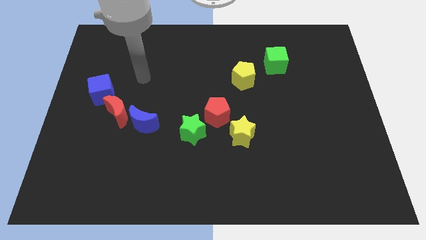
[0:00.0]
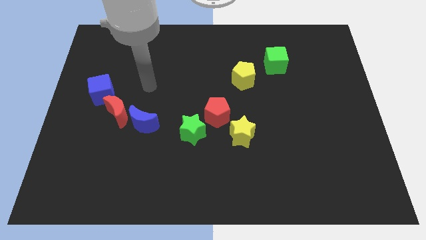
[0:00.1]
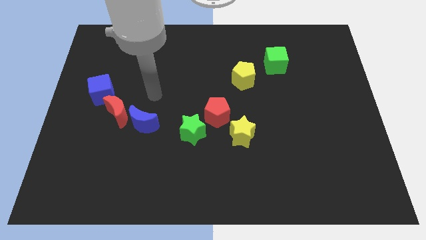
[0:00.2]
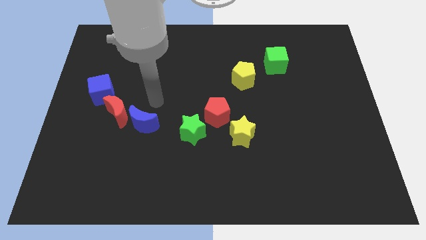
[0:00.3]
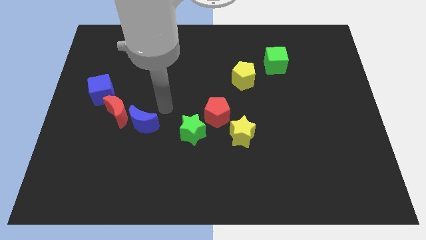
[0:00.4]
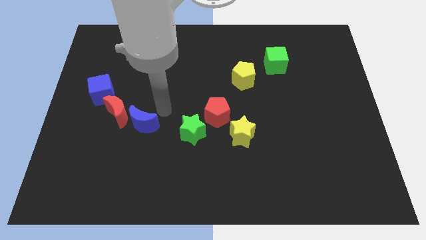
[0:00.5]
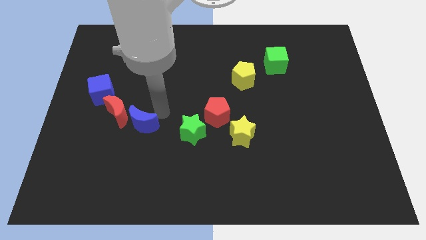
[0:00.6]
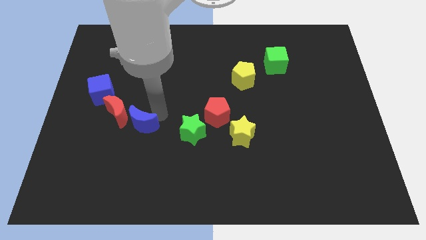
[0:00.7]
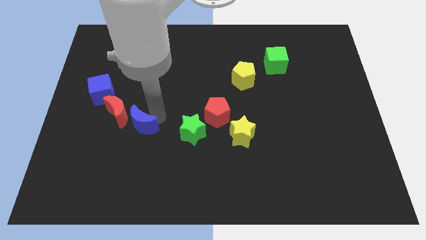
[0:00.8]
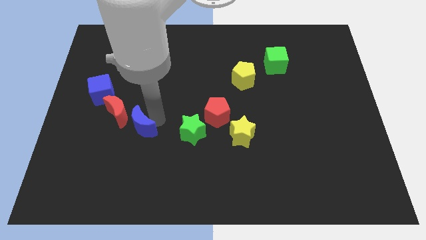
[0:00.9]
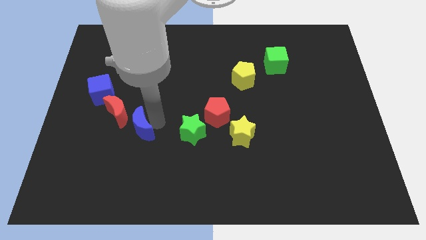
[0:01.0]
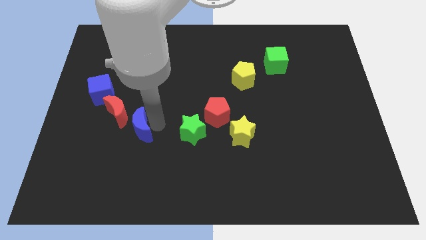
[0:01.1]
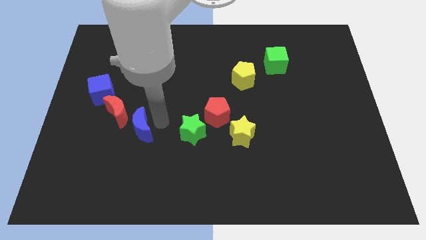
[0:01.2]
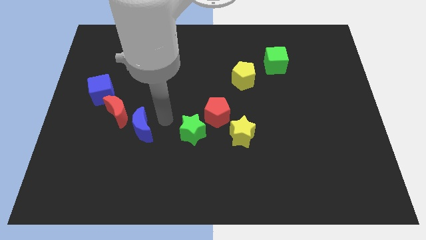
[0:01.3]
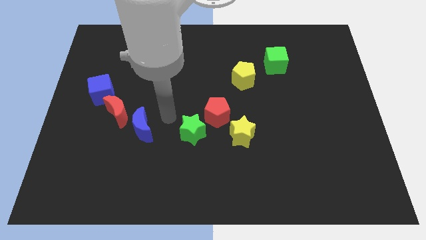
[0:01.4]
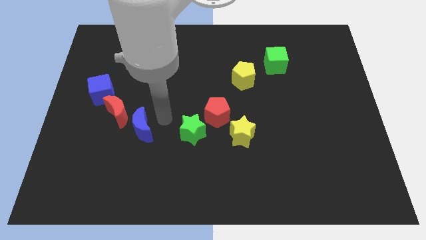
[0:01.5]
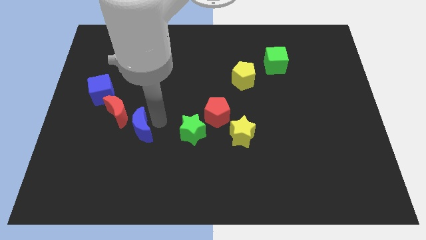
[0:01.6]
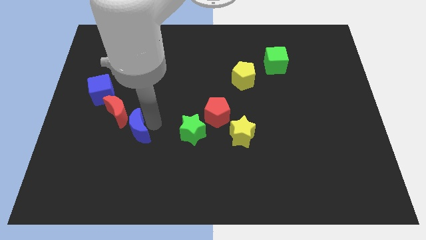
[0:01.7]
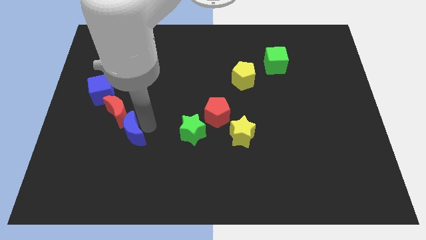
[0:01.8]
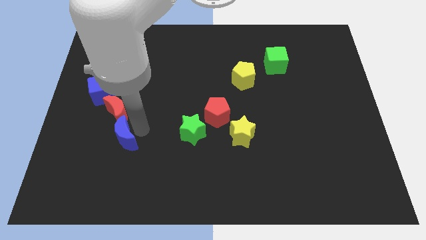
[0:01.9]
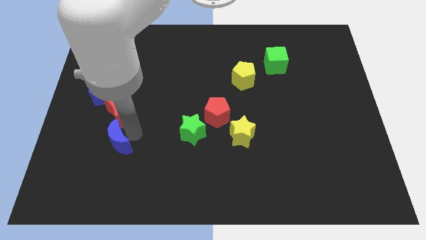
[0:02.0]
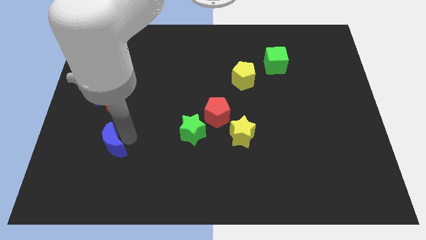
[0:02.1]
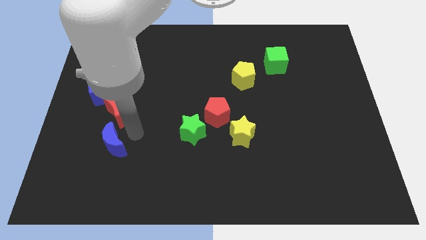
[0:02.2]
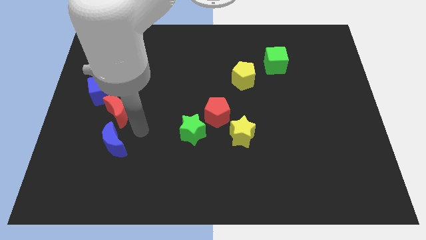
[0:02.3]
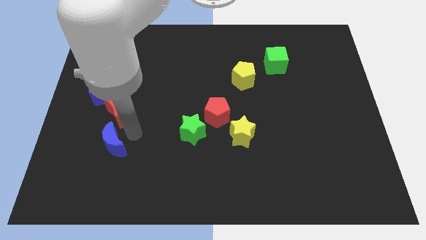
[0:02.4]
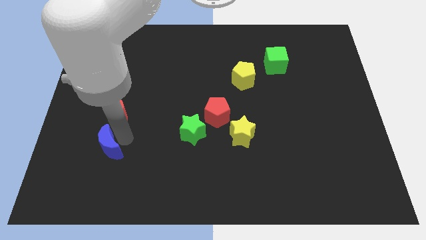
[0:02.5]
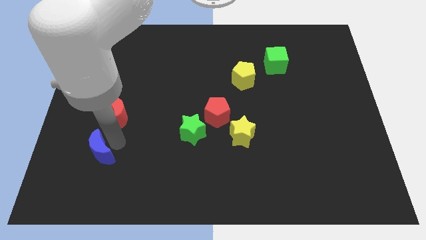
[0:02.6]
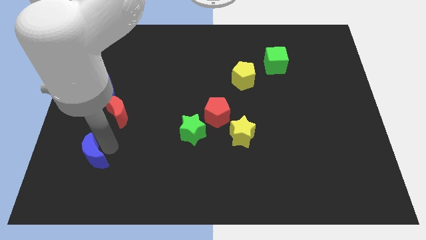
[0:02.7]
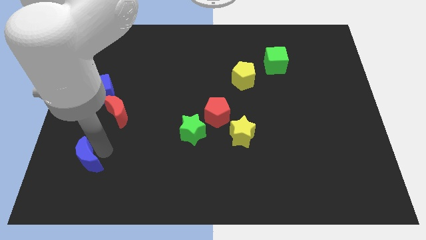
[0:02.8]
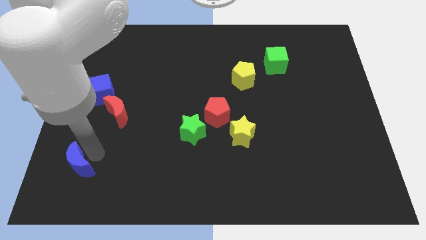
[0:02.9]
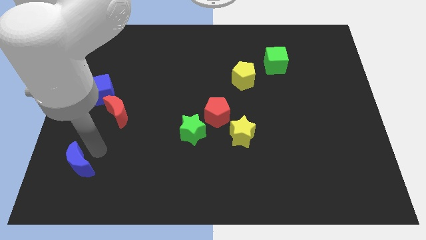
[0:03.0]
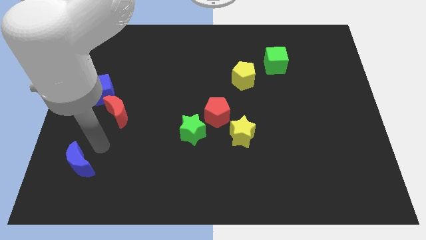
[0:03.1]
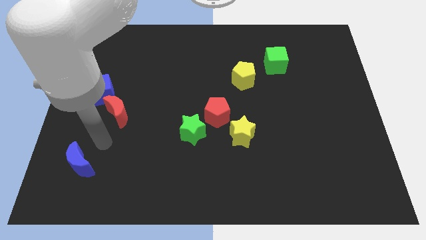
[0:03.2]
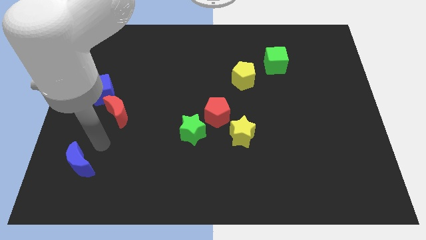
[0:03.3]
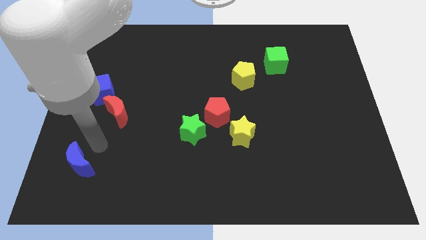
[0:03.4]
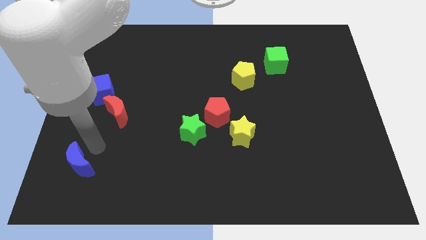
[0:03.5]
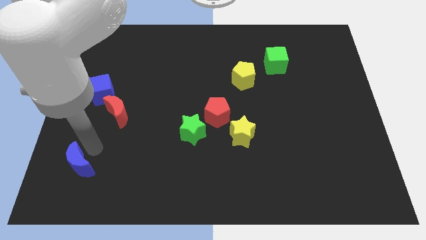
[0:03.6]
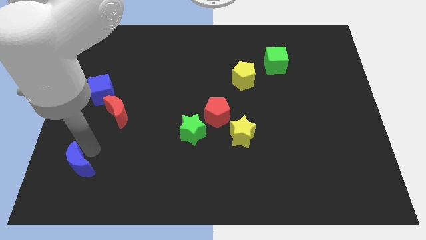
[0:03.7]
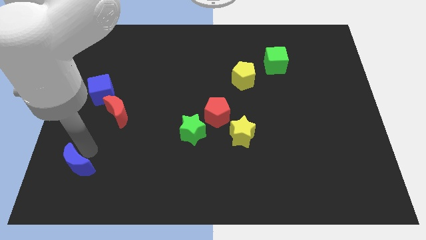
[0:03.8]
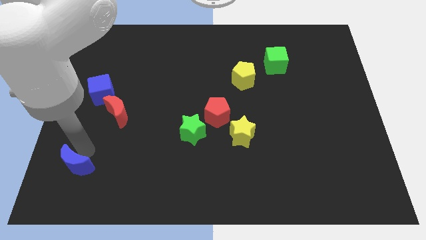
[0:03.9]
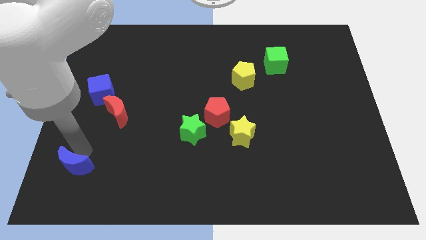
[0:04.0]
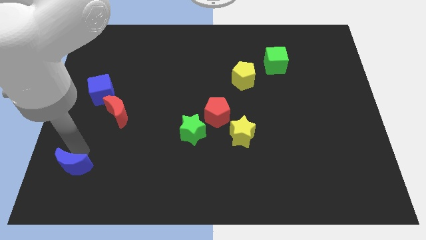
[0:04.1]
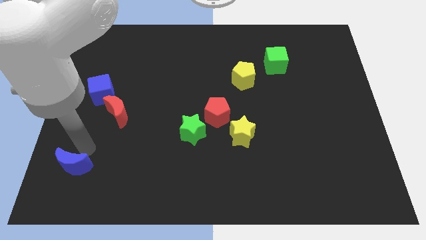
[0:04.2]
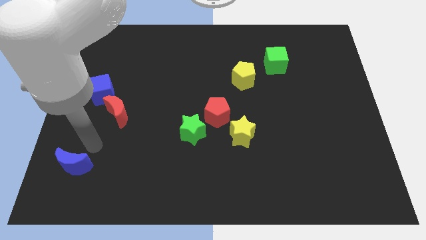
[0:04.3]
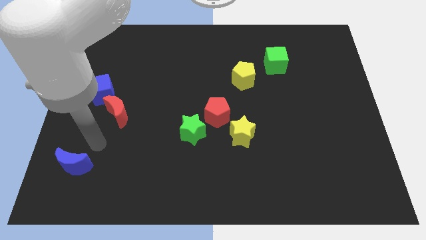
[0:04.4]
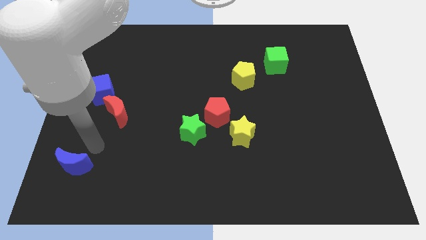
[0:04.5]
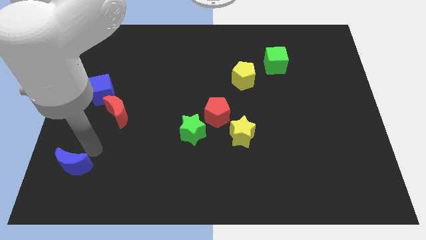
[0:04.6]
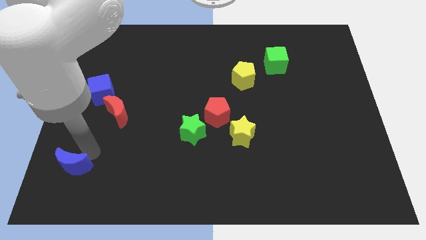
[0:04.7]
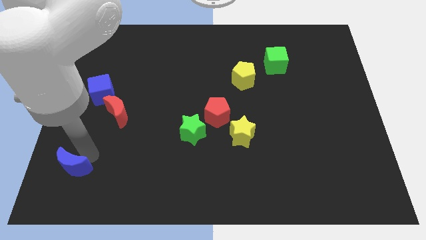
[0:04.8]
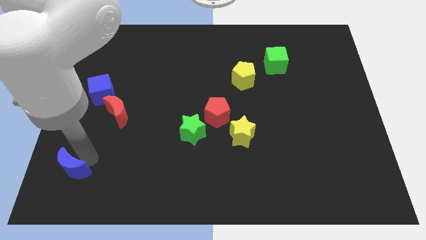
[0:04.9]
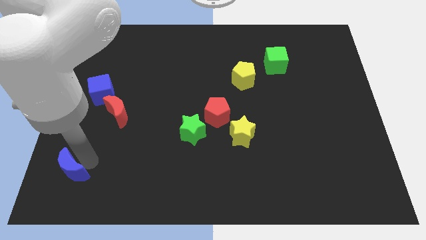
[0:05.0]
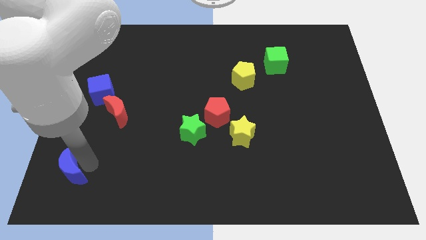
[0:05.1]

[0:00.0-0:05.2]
put the blue moon to the lower left corner
